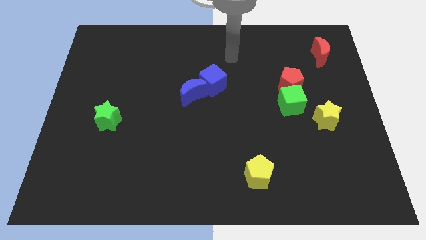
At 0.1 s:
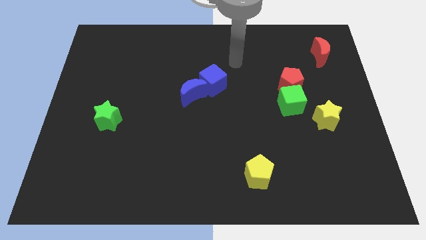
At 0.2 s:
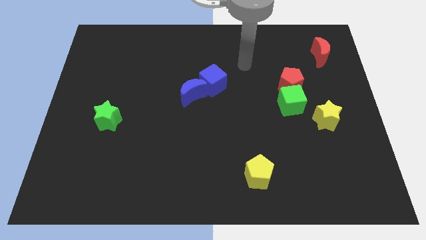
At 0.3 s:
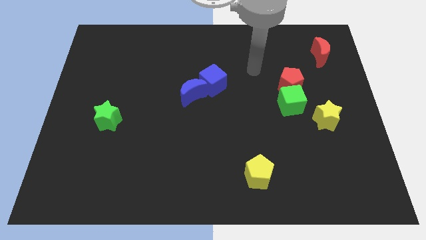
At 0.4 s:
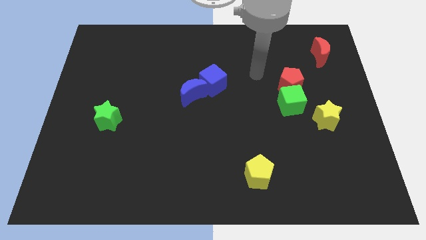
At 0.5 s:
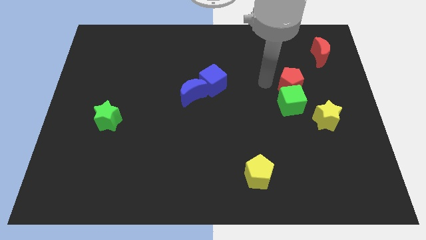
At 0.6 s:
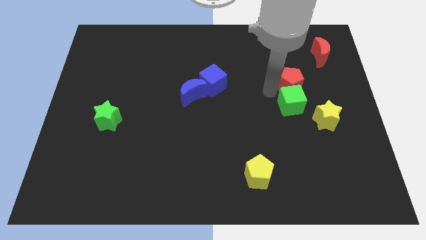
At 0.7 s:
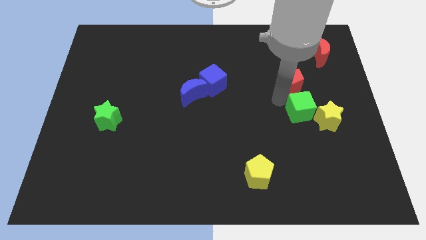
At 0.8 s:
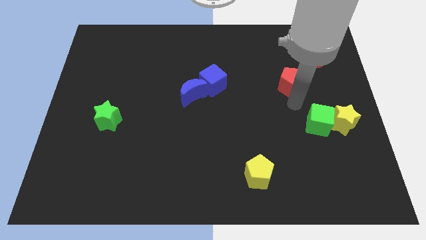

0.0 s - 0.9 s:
move the red pentagon away from the green cube

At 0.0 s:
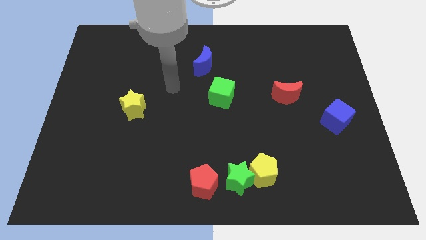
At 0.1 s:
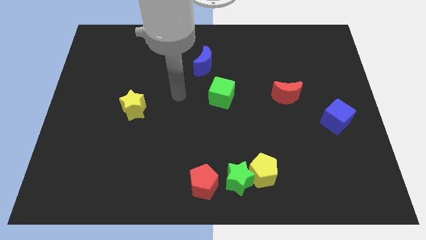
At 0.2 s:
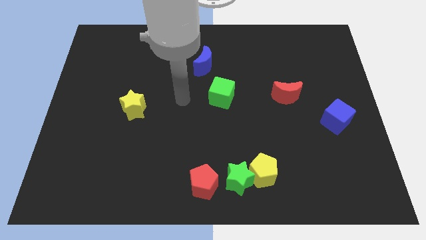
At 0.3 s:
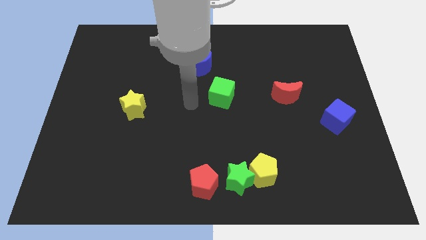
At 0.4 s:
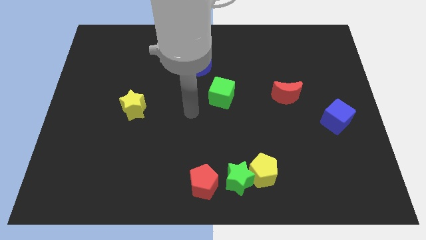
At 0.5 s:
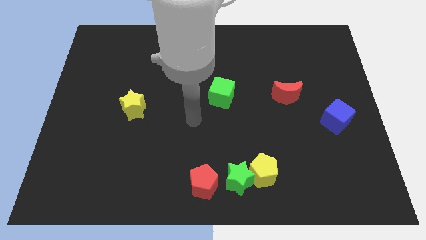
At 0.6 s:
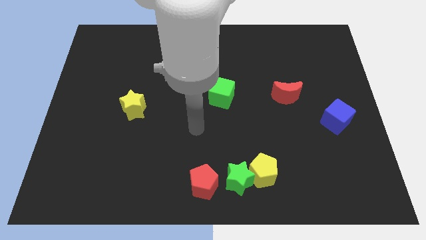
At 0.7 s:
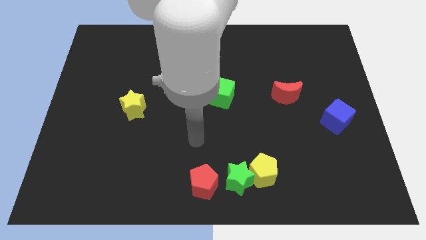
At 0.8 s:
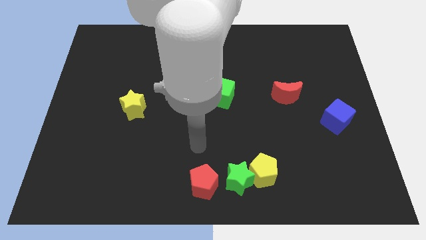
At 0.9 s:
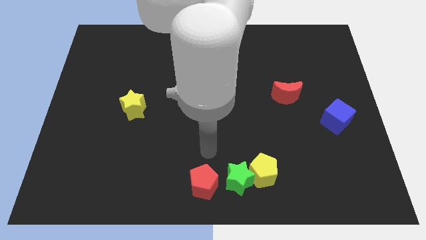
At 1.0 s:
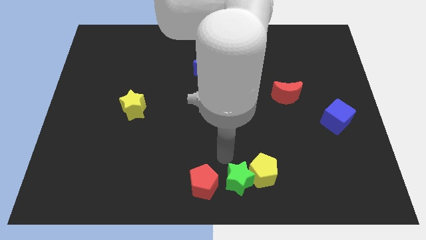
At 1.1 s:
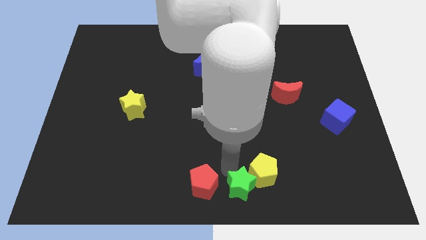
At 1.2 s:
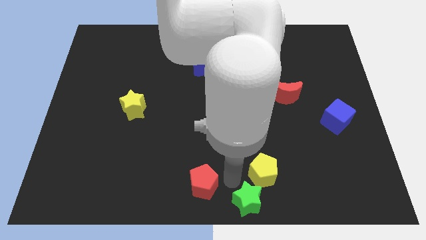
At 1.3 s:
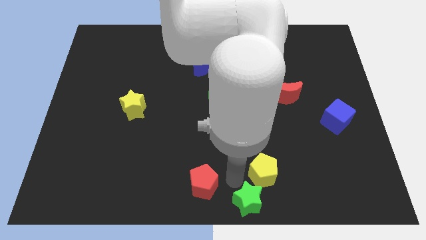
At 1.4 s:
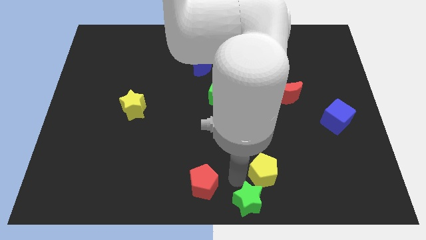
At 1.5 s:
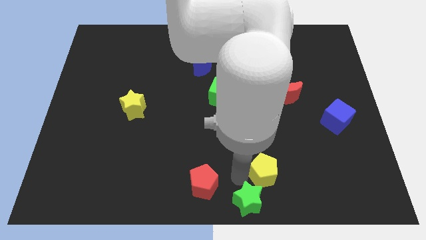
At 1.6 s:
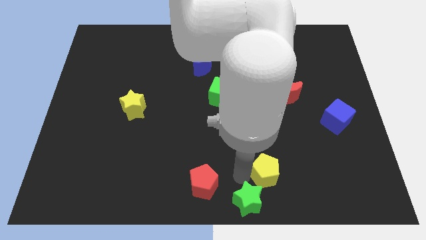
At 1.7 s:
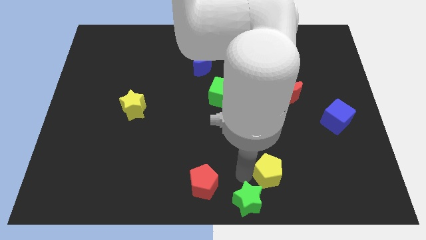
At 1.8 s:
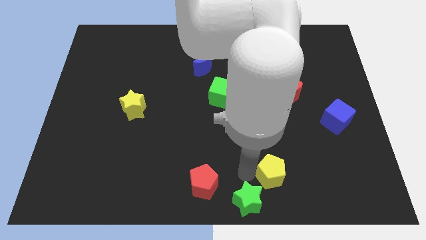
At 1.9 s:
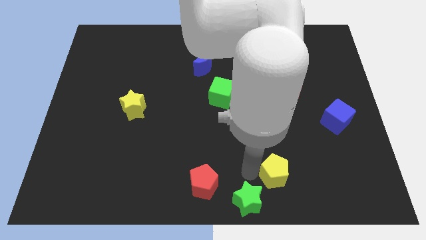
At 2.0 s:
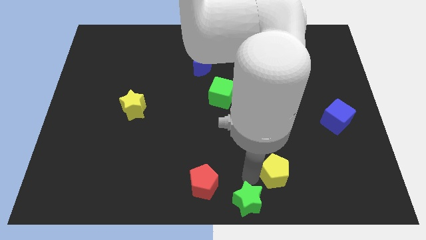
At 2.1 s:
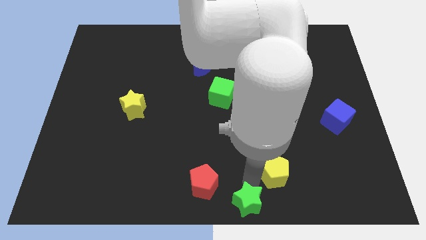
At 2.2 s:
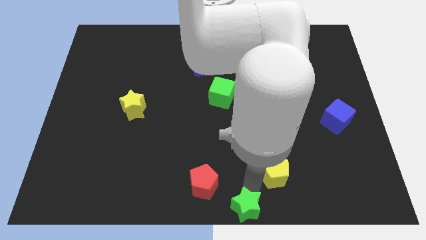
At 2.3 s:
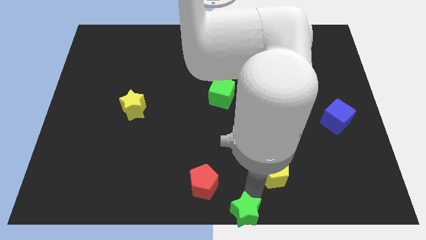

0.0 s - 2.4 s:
move the yellow pentagon away from the green star

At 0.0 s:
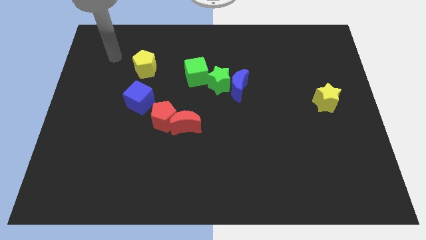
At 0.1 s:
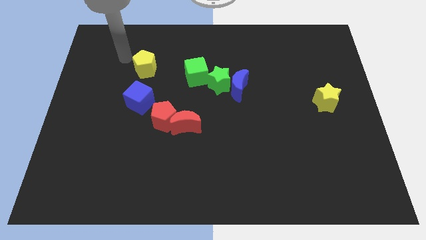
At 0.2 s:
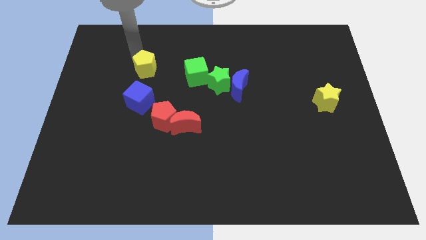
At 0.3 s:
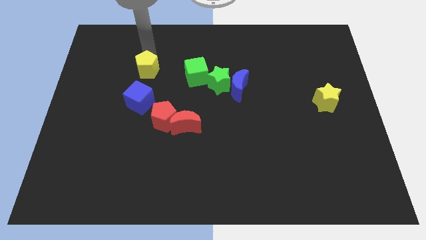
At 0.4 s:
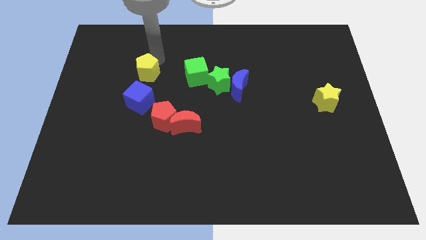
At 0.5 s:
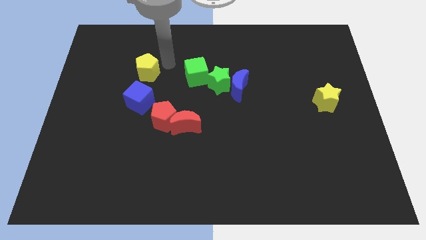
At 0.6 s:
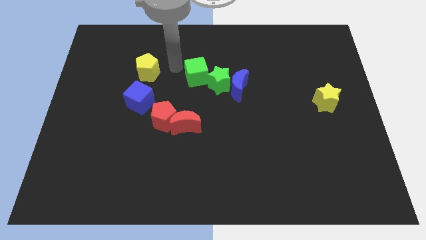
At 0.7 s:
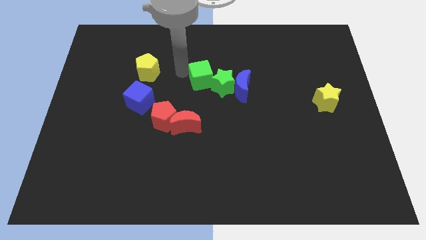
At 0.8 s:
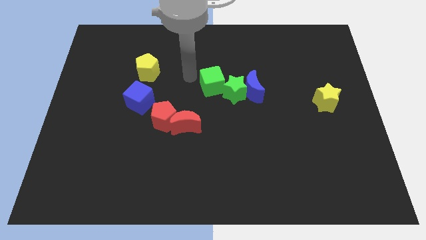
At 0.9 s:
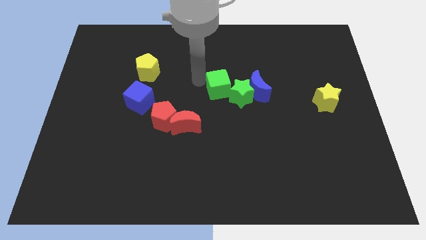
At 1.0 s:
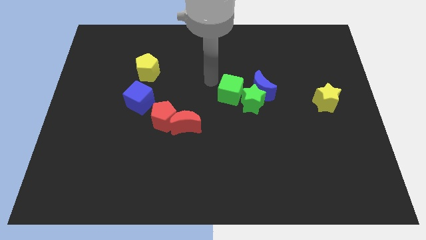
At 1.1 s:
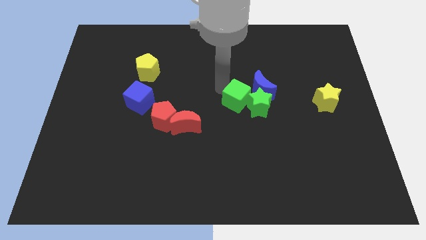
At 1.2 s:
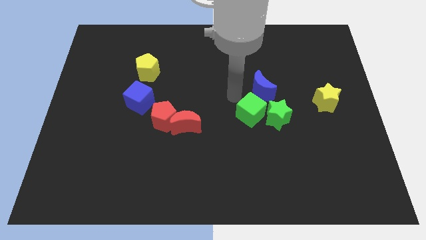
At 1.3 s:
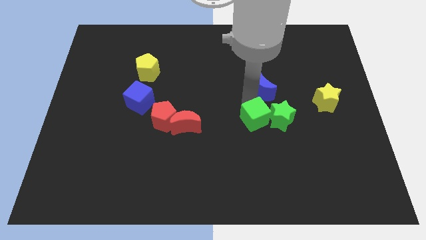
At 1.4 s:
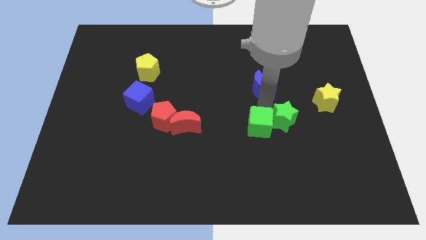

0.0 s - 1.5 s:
move the blue moon away from the green star

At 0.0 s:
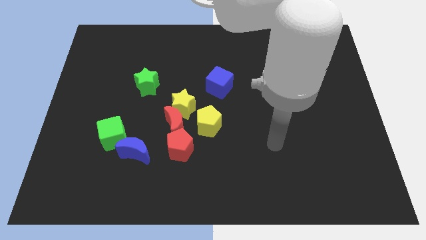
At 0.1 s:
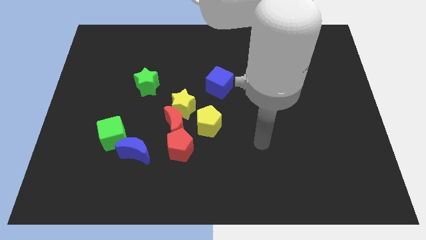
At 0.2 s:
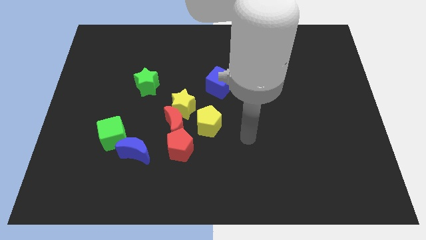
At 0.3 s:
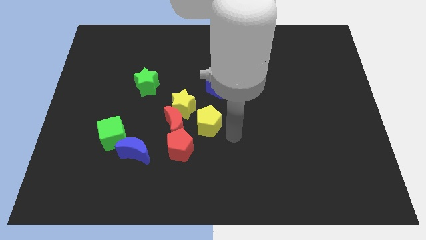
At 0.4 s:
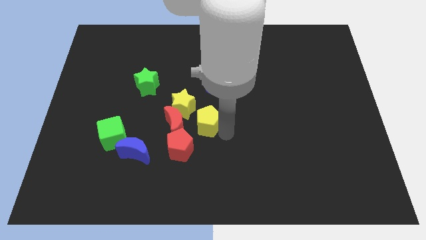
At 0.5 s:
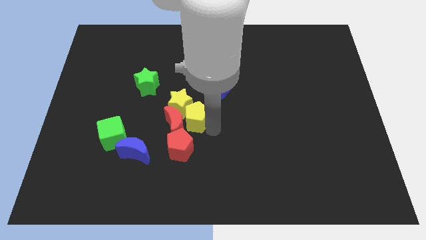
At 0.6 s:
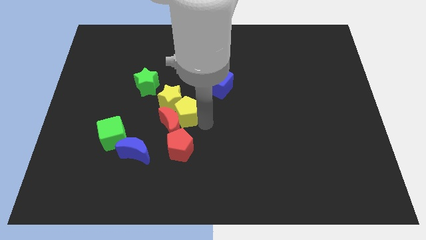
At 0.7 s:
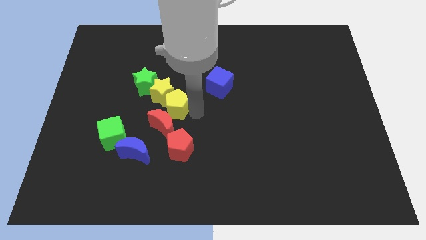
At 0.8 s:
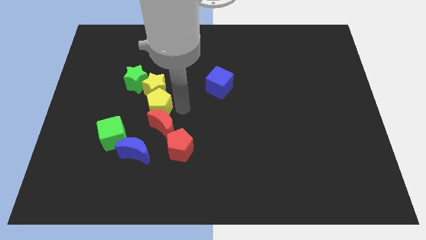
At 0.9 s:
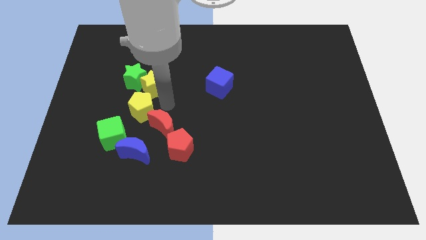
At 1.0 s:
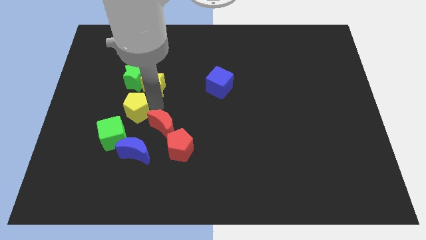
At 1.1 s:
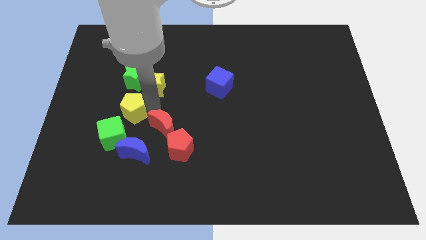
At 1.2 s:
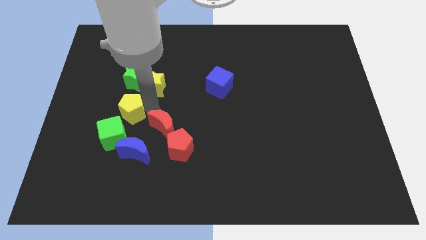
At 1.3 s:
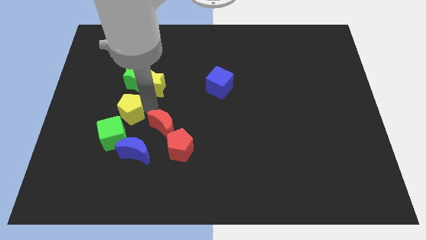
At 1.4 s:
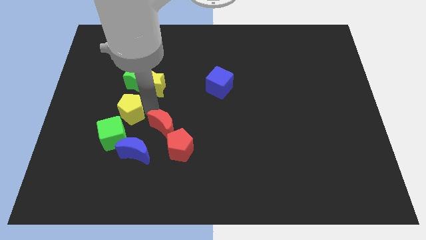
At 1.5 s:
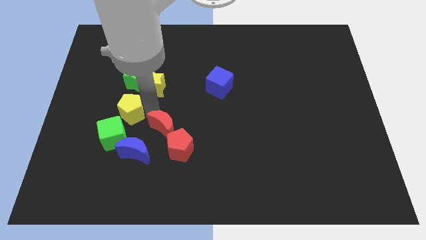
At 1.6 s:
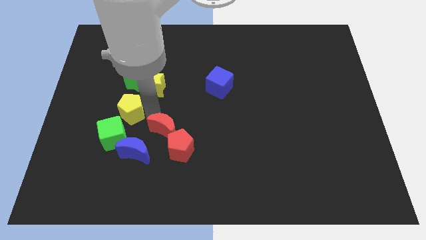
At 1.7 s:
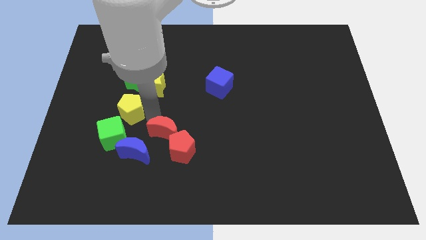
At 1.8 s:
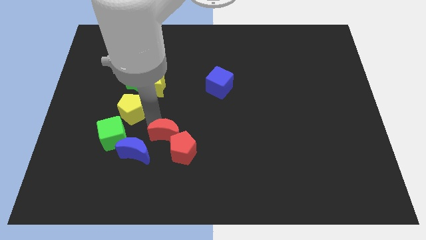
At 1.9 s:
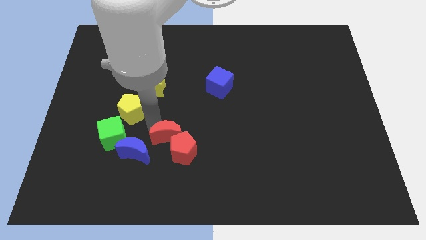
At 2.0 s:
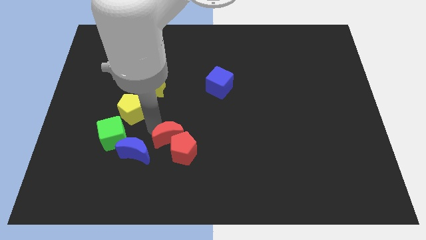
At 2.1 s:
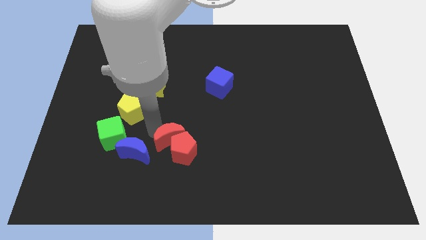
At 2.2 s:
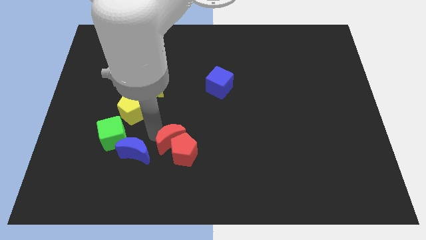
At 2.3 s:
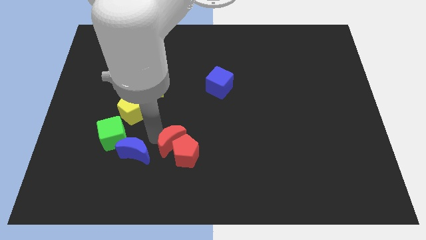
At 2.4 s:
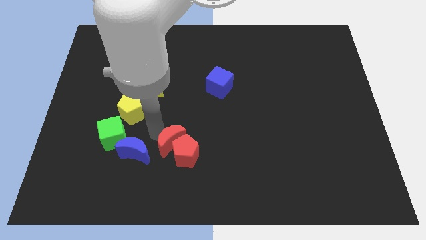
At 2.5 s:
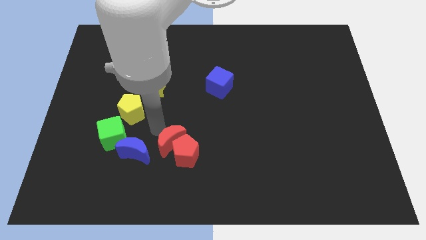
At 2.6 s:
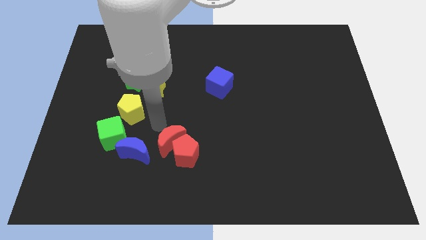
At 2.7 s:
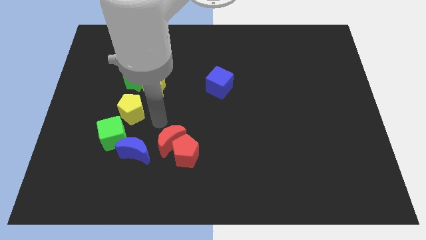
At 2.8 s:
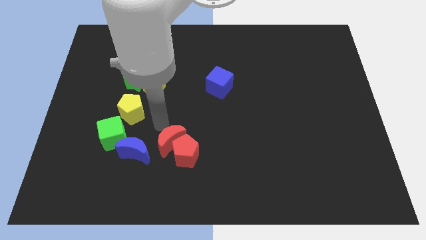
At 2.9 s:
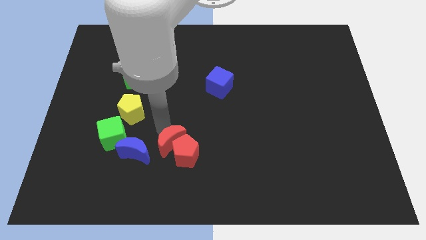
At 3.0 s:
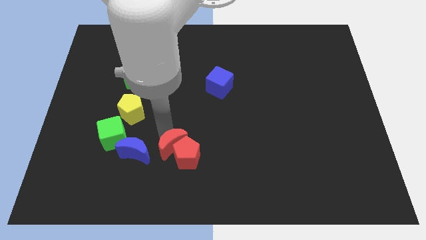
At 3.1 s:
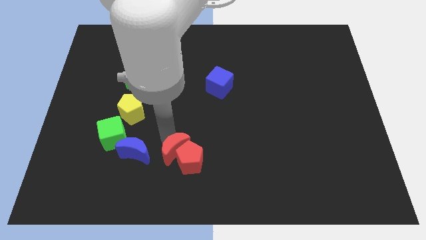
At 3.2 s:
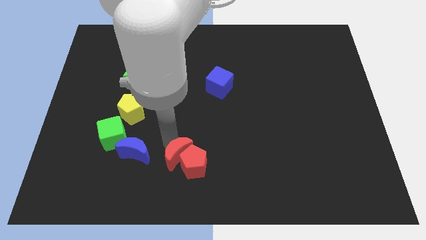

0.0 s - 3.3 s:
separate the red moon from the group of blocks

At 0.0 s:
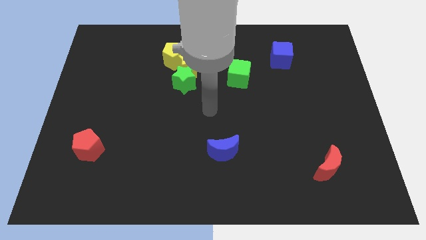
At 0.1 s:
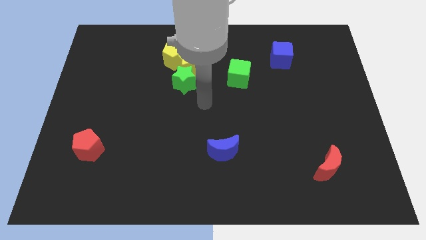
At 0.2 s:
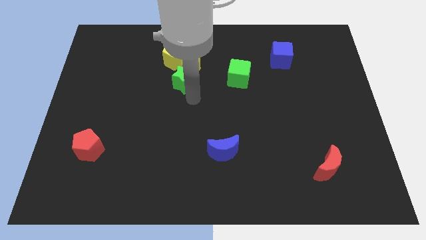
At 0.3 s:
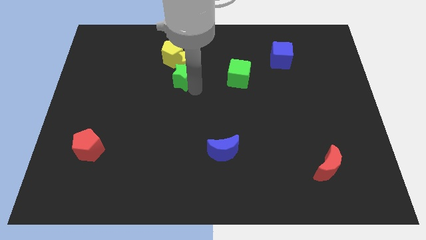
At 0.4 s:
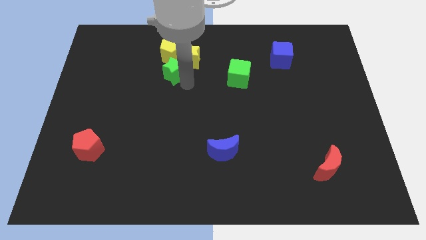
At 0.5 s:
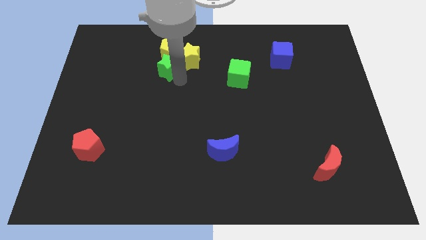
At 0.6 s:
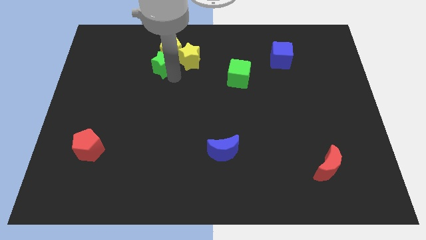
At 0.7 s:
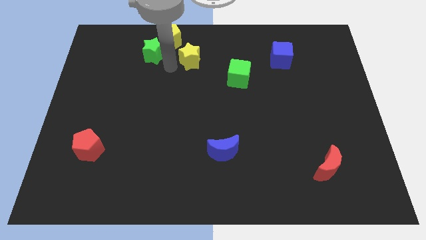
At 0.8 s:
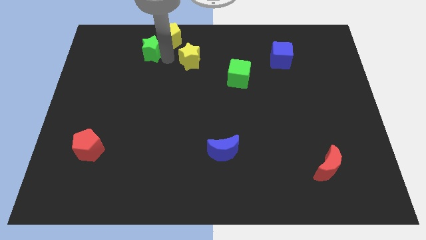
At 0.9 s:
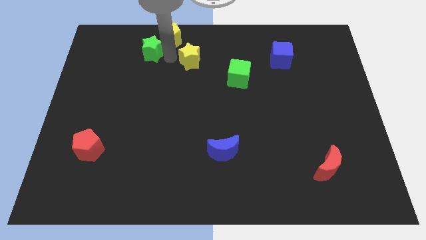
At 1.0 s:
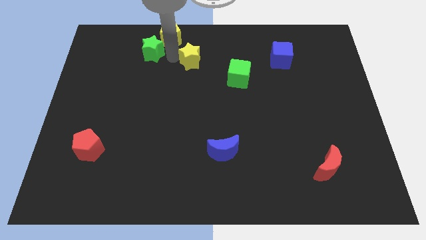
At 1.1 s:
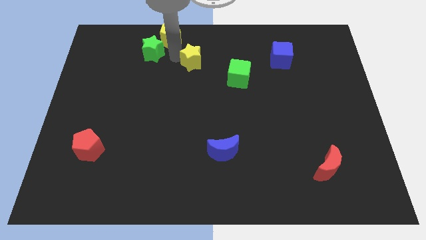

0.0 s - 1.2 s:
pull the yellow star apart from the yellow pentagon and green star
